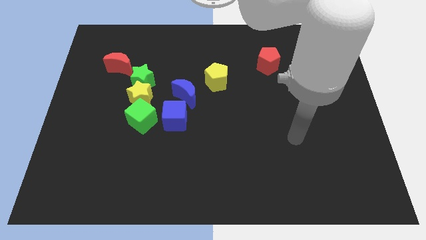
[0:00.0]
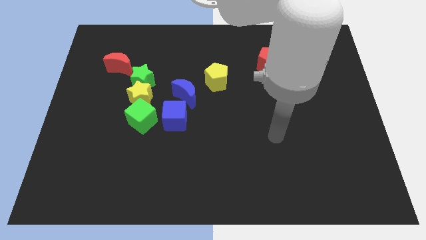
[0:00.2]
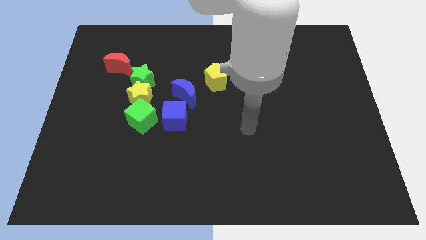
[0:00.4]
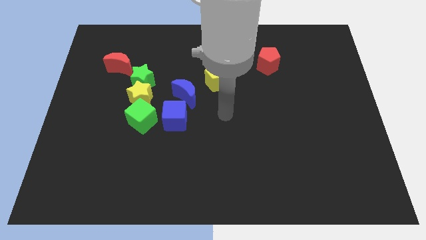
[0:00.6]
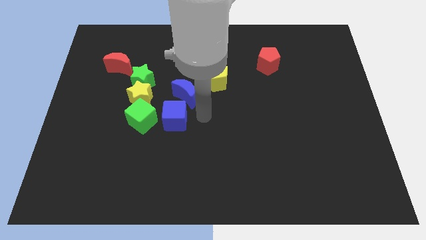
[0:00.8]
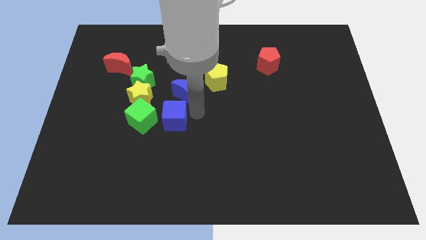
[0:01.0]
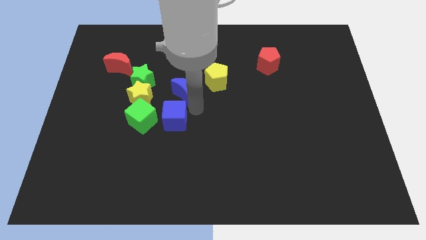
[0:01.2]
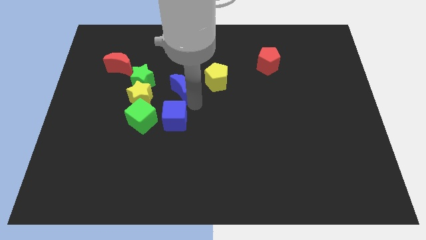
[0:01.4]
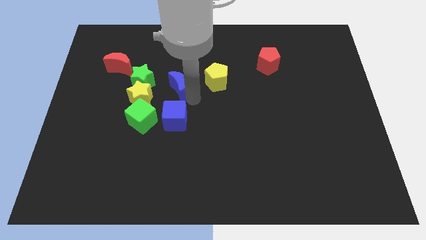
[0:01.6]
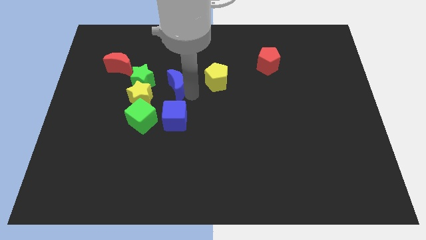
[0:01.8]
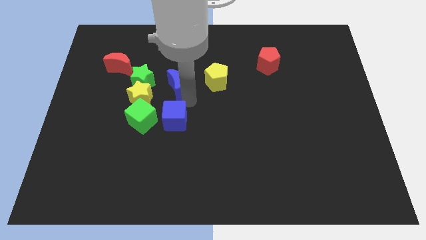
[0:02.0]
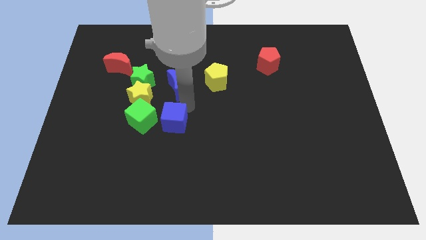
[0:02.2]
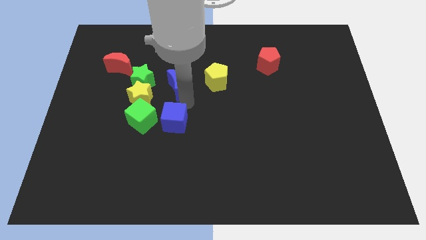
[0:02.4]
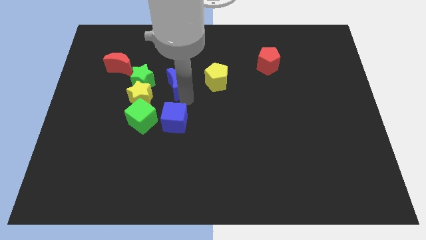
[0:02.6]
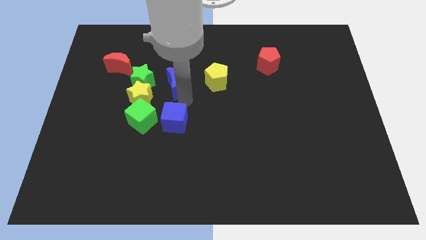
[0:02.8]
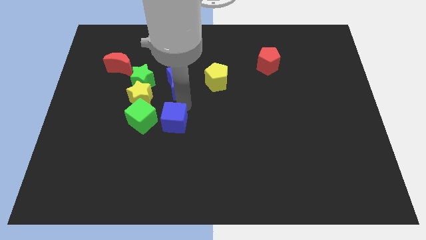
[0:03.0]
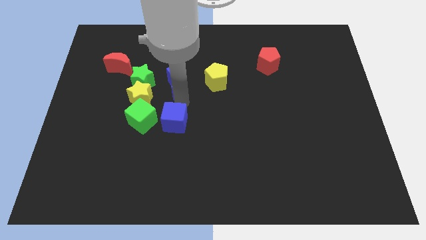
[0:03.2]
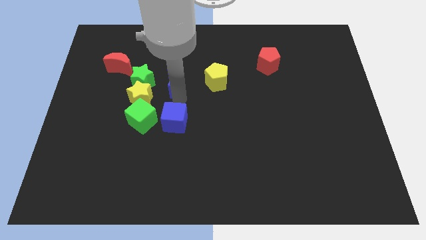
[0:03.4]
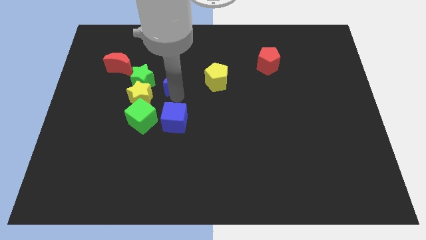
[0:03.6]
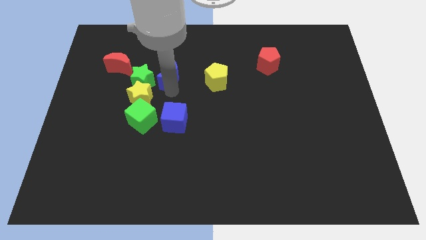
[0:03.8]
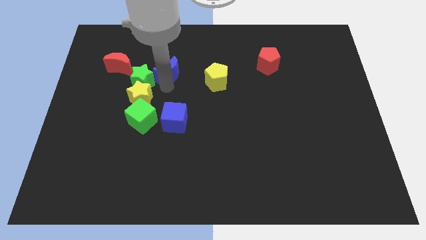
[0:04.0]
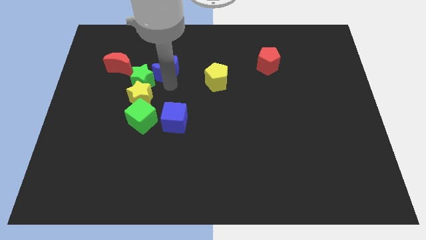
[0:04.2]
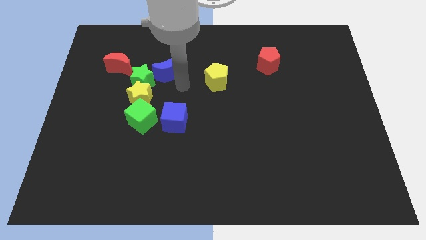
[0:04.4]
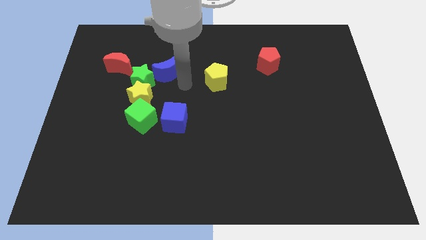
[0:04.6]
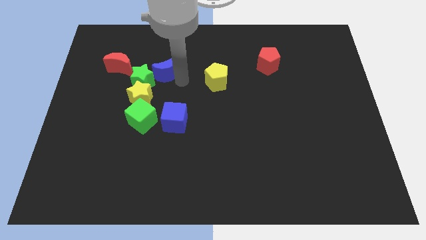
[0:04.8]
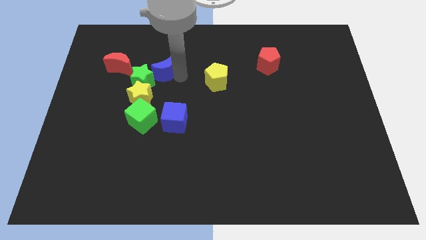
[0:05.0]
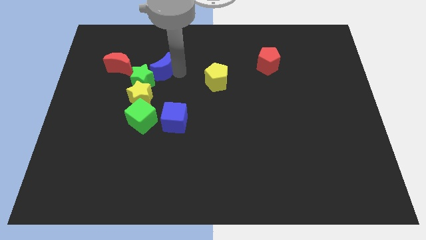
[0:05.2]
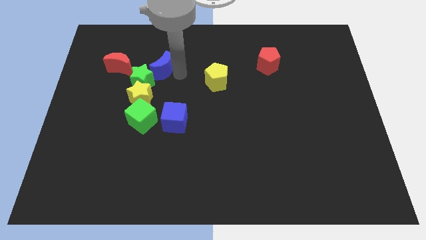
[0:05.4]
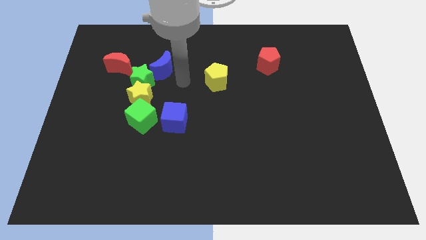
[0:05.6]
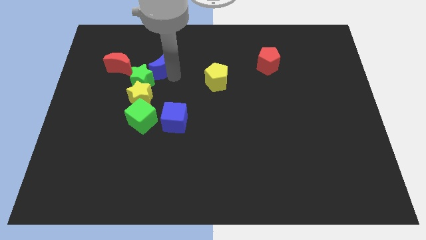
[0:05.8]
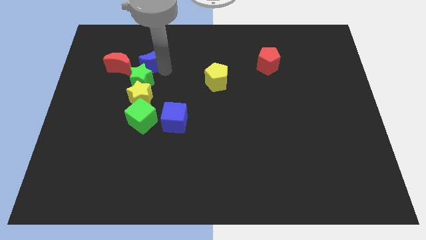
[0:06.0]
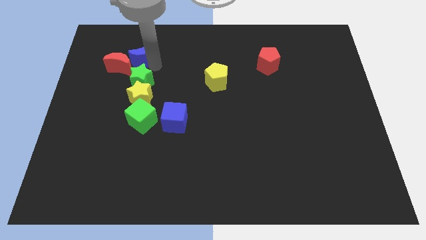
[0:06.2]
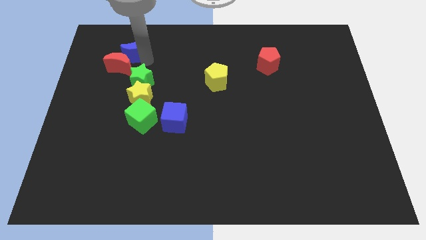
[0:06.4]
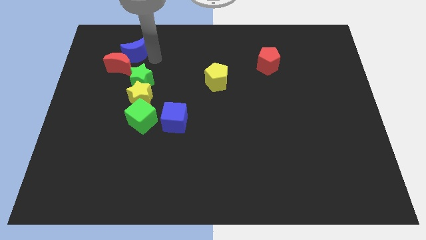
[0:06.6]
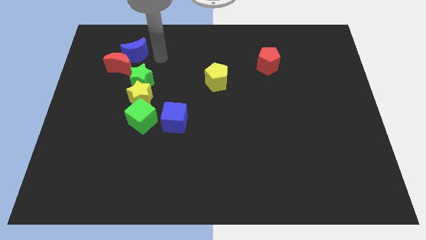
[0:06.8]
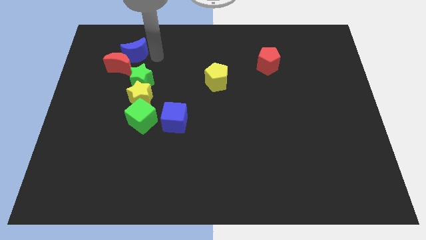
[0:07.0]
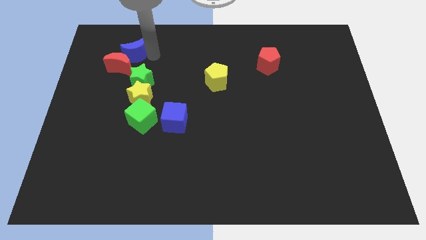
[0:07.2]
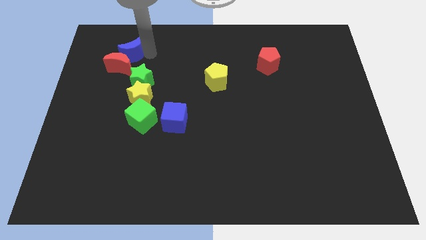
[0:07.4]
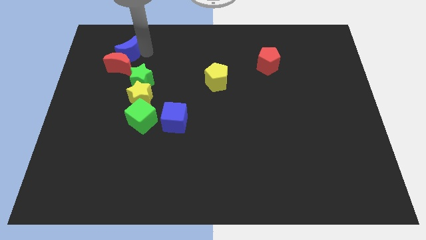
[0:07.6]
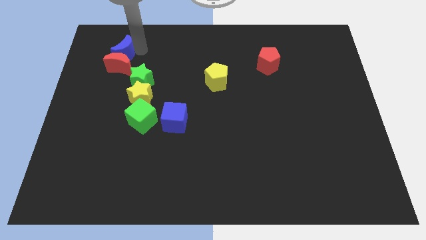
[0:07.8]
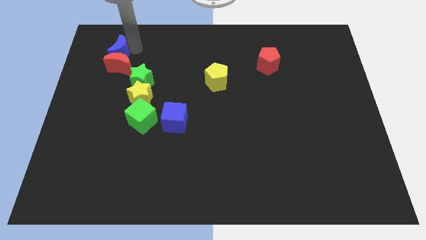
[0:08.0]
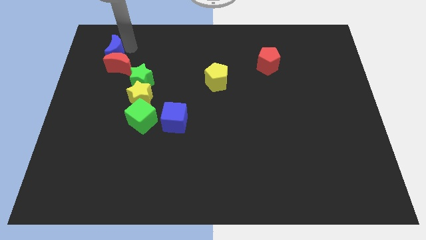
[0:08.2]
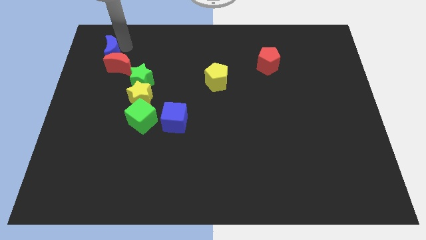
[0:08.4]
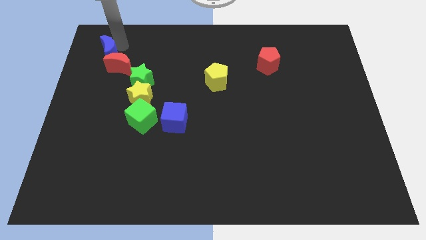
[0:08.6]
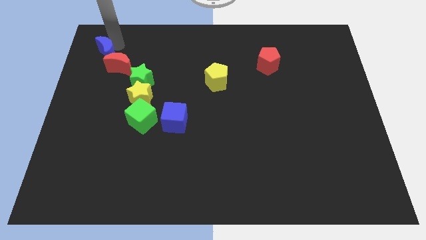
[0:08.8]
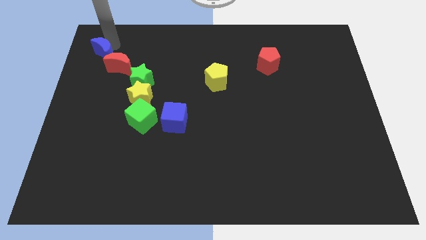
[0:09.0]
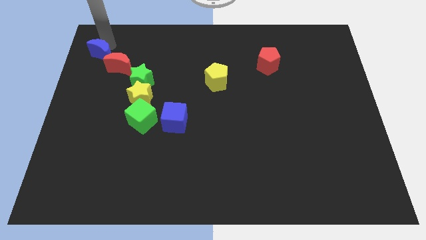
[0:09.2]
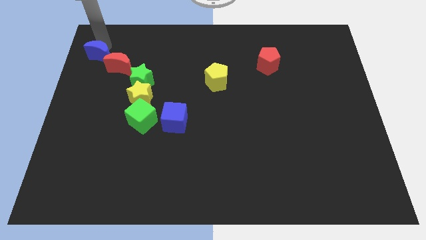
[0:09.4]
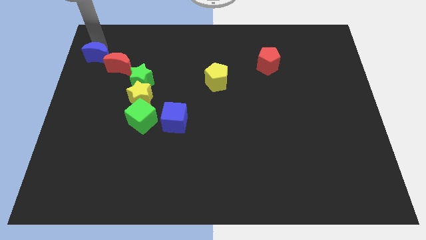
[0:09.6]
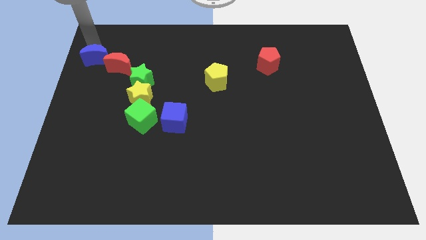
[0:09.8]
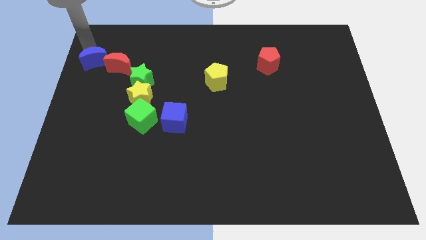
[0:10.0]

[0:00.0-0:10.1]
push the blue moon somewhat left

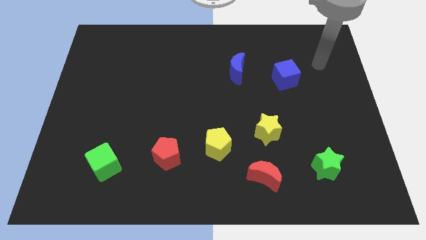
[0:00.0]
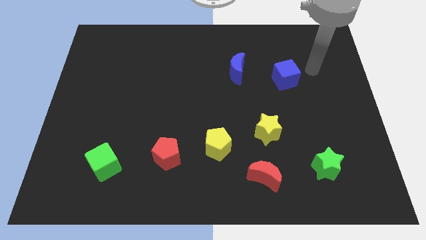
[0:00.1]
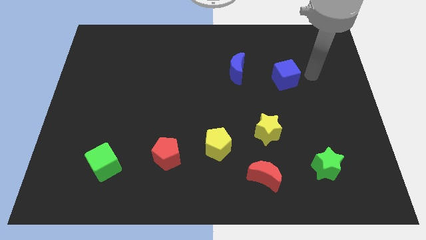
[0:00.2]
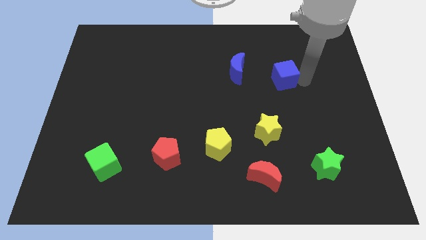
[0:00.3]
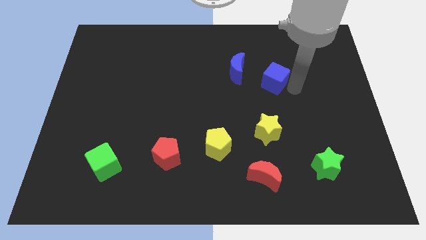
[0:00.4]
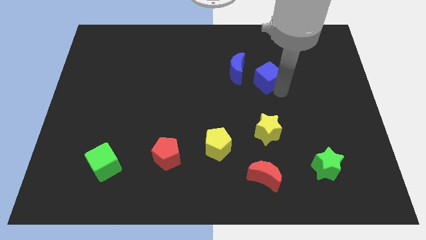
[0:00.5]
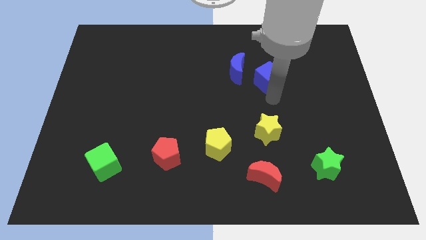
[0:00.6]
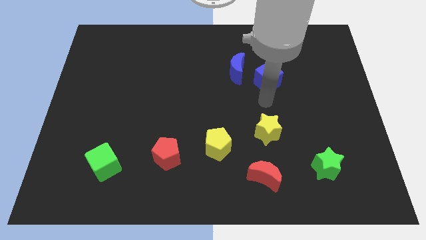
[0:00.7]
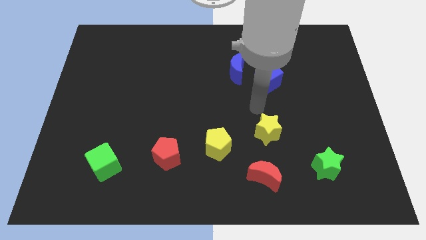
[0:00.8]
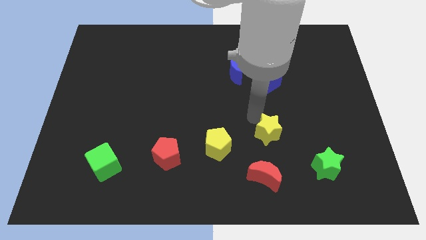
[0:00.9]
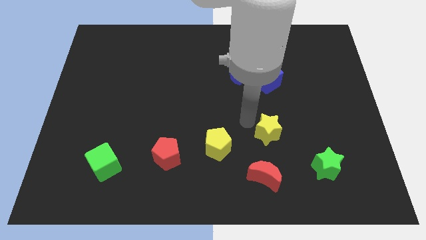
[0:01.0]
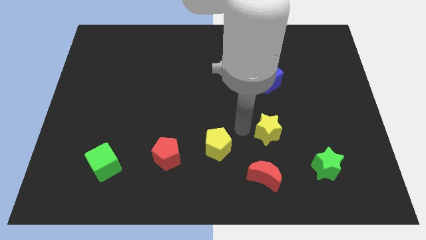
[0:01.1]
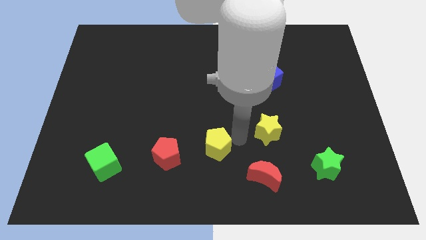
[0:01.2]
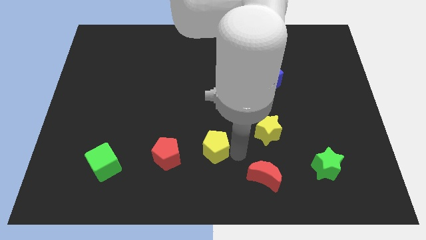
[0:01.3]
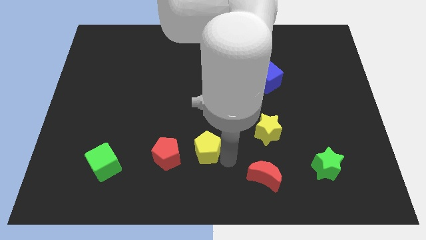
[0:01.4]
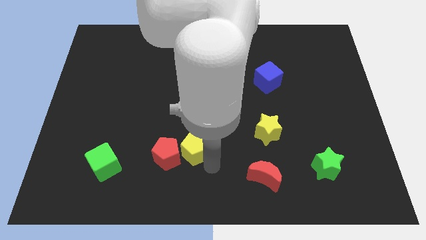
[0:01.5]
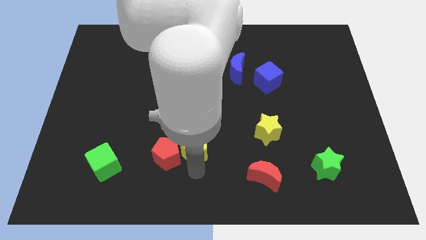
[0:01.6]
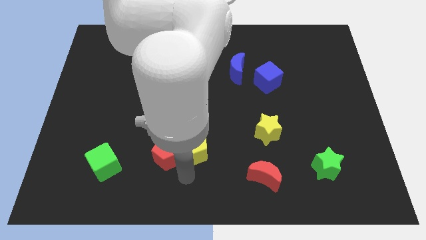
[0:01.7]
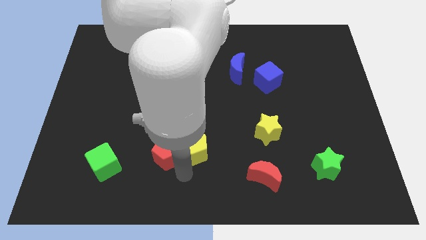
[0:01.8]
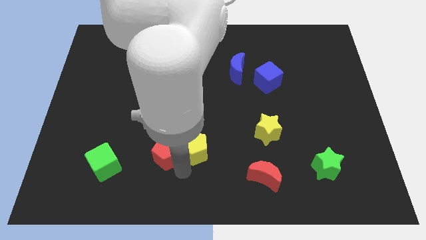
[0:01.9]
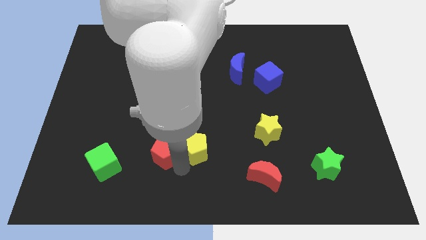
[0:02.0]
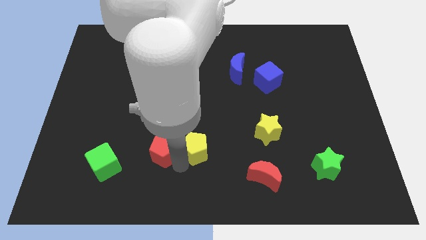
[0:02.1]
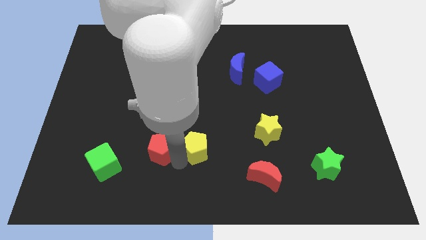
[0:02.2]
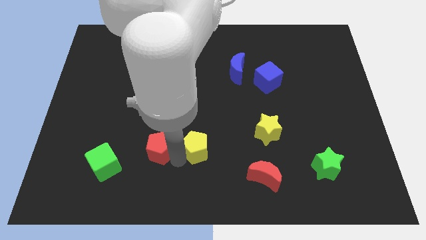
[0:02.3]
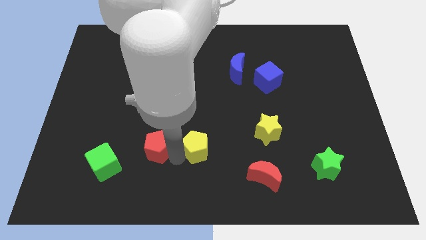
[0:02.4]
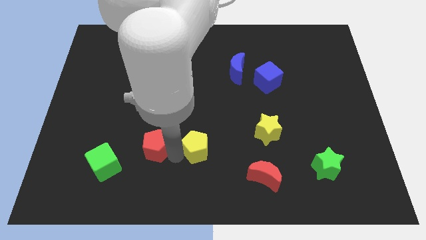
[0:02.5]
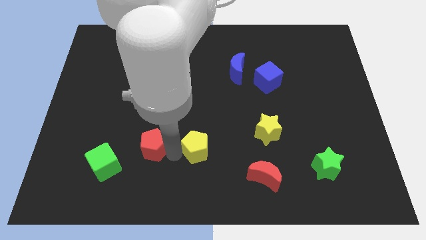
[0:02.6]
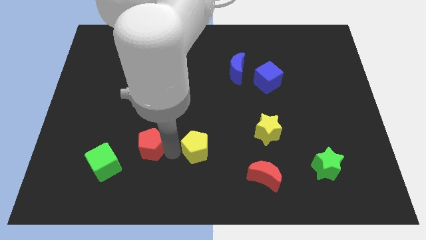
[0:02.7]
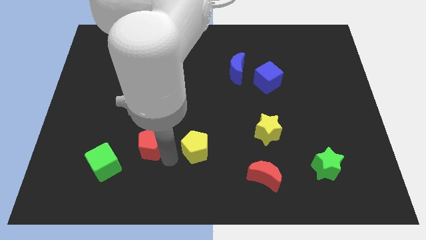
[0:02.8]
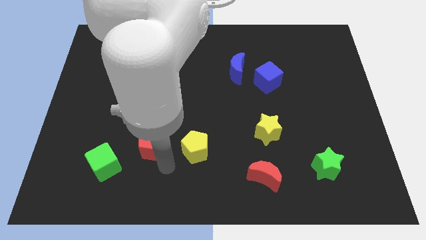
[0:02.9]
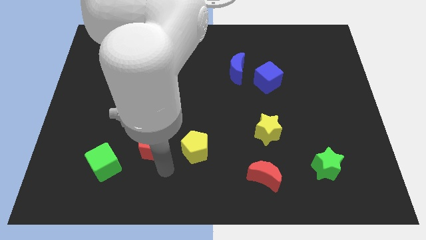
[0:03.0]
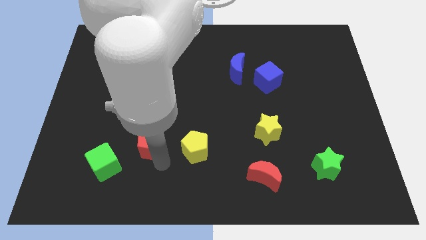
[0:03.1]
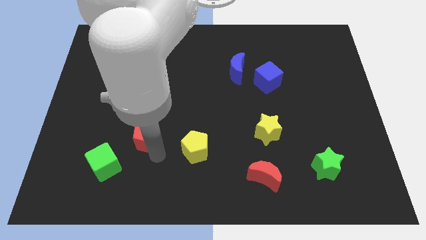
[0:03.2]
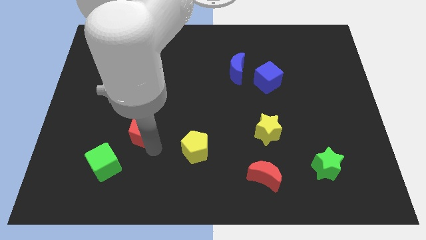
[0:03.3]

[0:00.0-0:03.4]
slightly slide the red pentagon up and then left
